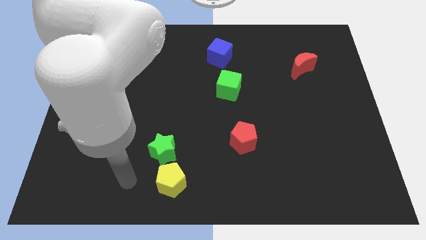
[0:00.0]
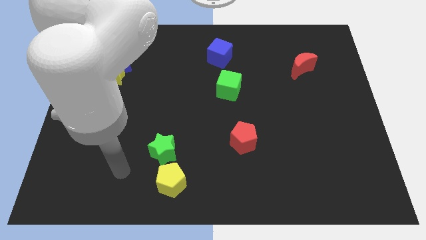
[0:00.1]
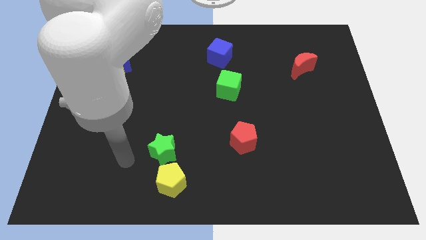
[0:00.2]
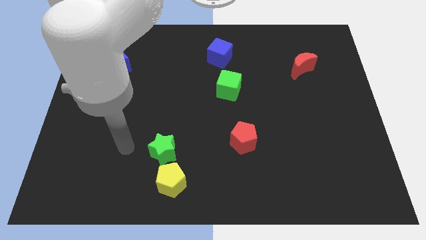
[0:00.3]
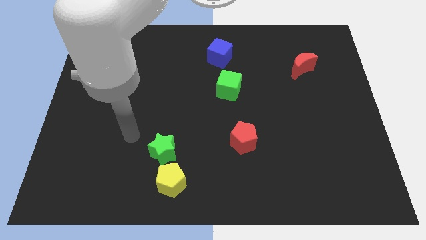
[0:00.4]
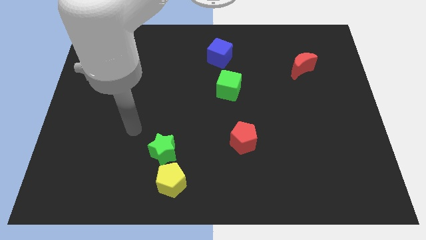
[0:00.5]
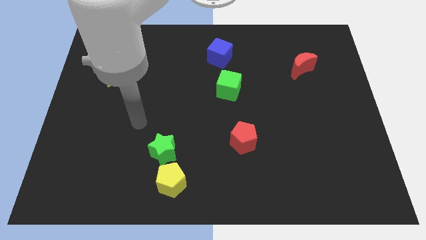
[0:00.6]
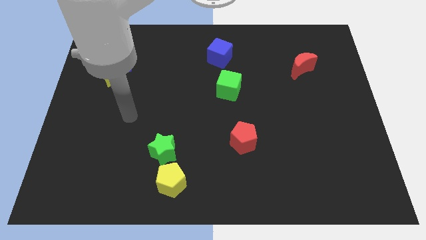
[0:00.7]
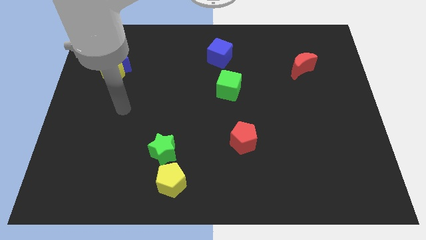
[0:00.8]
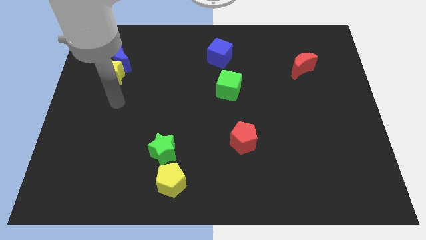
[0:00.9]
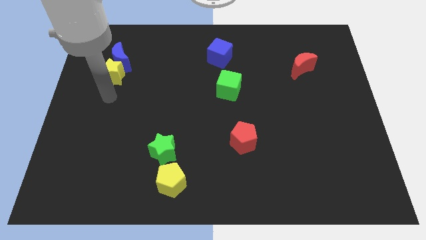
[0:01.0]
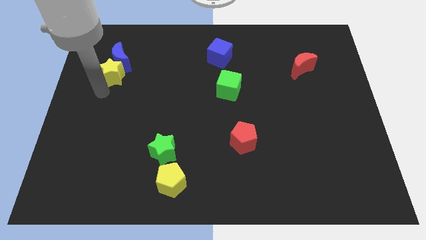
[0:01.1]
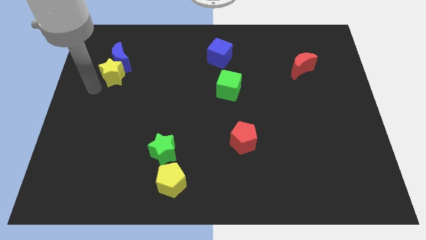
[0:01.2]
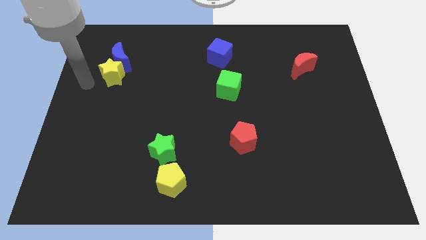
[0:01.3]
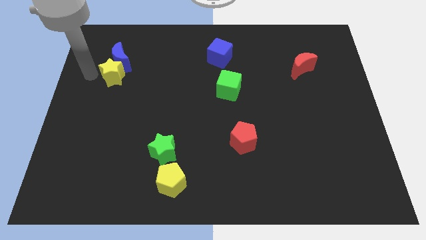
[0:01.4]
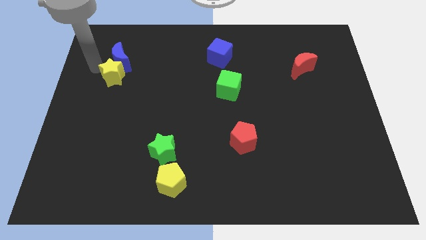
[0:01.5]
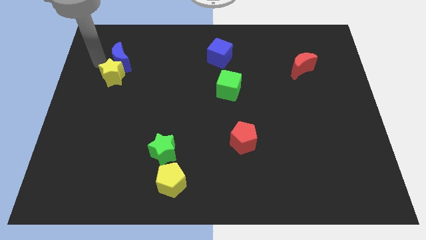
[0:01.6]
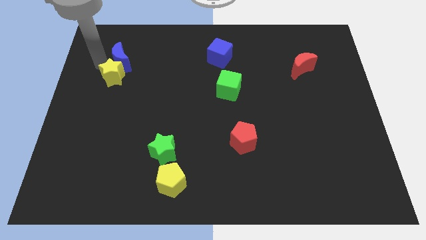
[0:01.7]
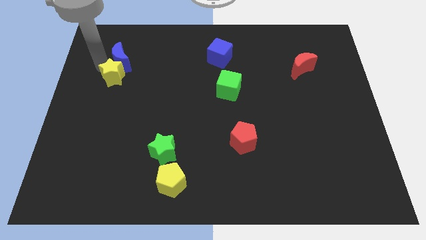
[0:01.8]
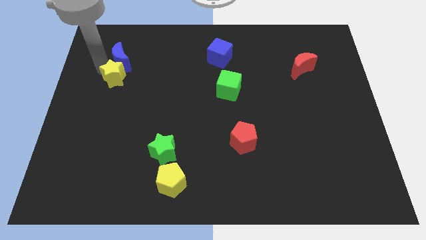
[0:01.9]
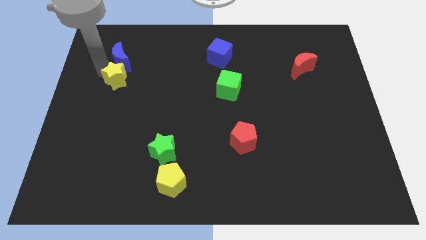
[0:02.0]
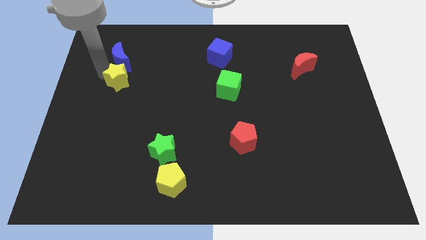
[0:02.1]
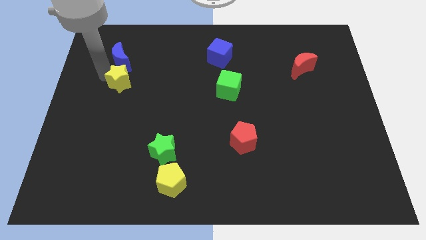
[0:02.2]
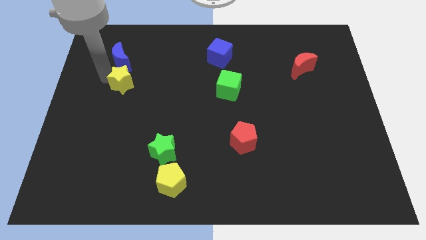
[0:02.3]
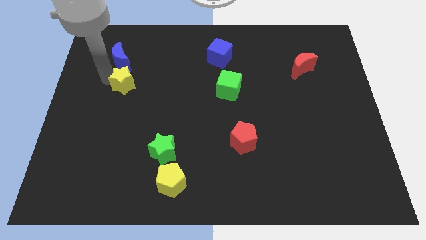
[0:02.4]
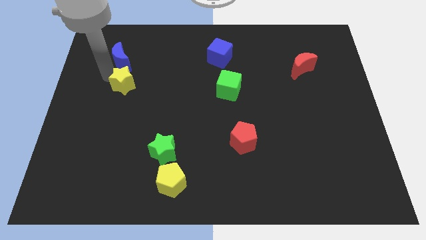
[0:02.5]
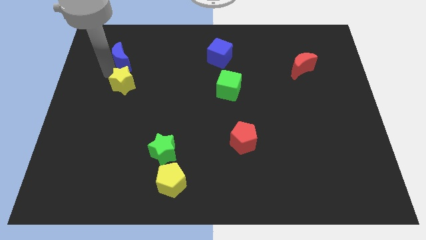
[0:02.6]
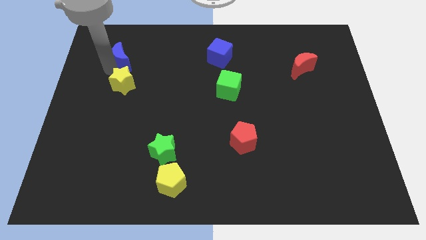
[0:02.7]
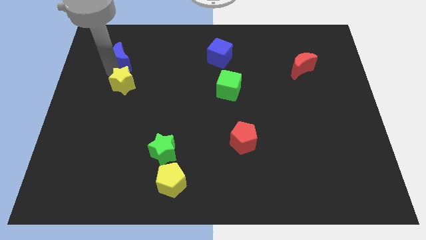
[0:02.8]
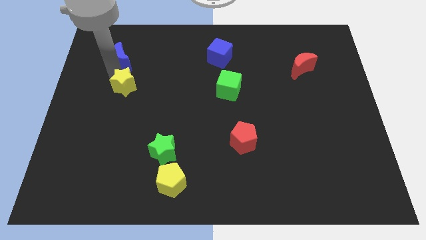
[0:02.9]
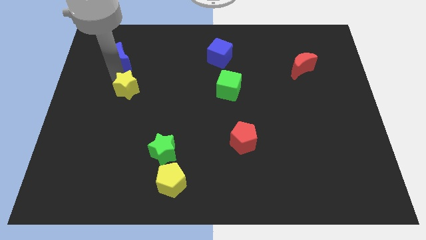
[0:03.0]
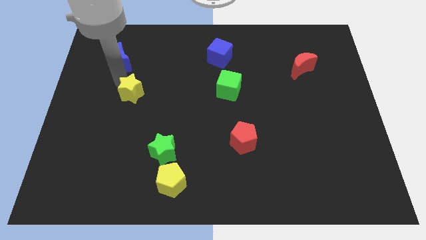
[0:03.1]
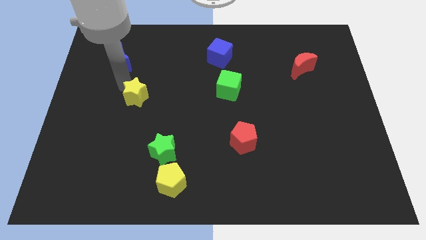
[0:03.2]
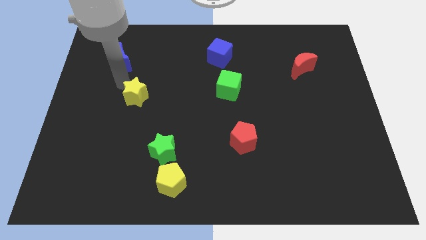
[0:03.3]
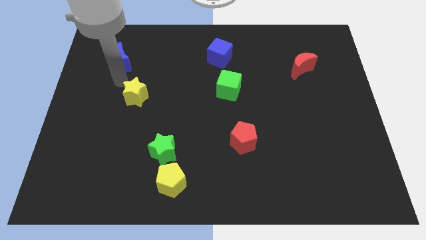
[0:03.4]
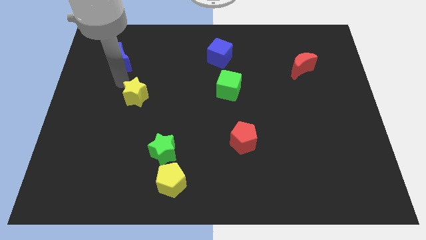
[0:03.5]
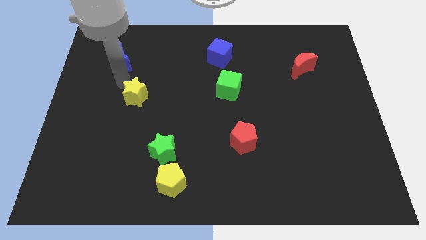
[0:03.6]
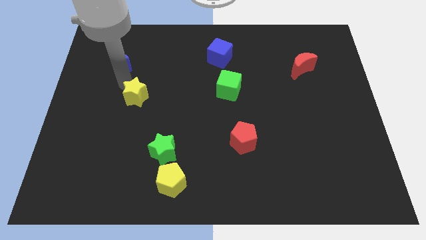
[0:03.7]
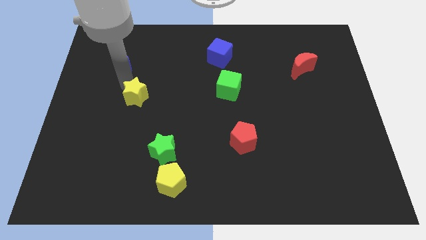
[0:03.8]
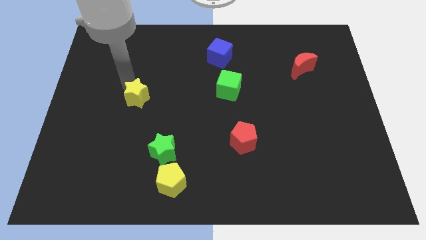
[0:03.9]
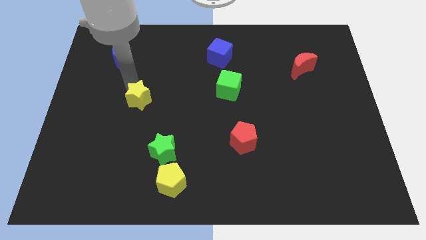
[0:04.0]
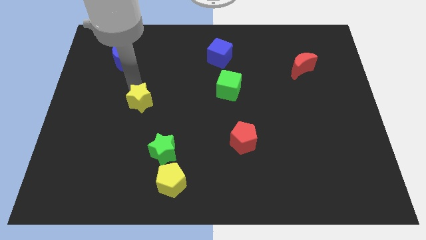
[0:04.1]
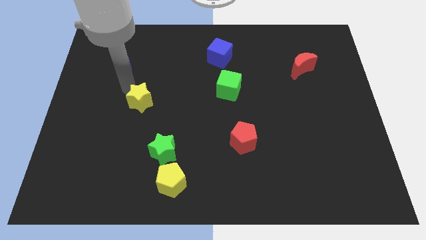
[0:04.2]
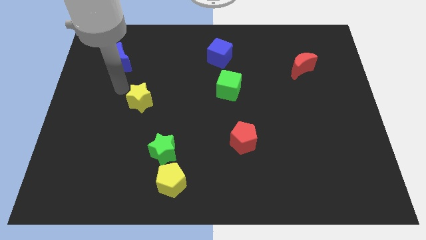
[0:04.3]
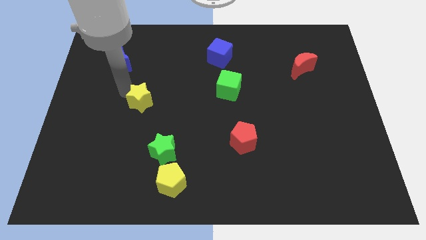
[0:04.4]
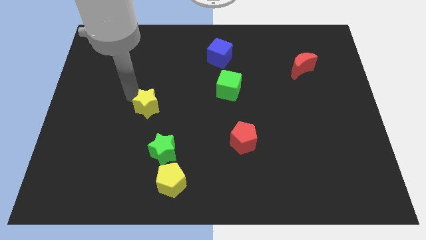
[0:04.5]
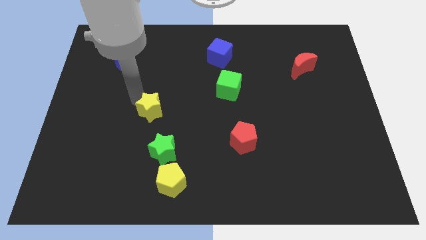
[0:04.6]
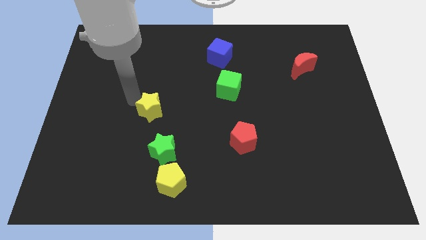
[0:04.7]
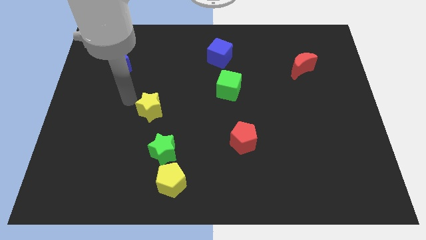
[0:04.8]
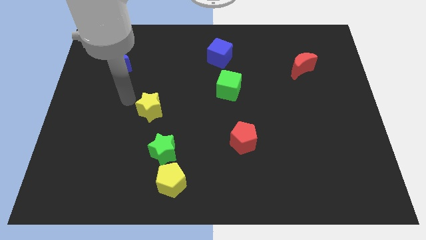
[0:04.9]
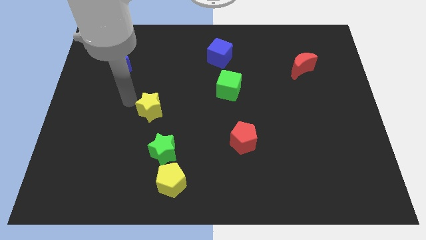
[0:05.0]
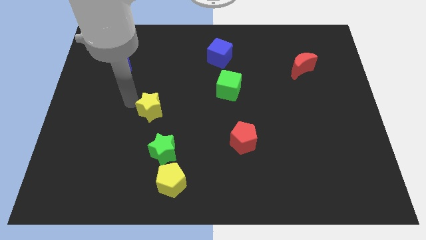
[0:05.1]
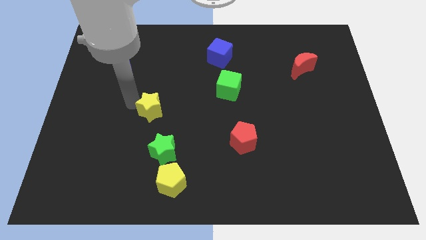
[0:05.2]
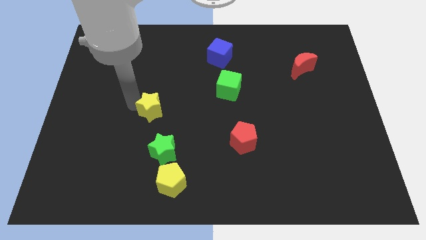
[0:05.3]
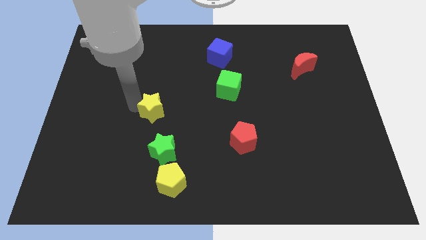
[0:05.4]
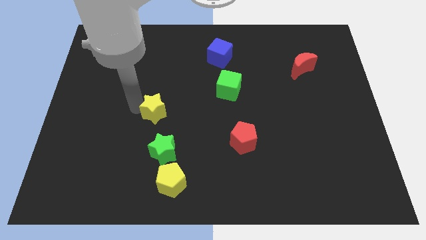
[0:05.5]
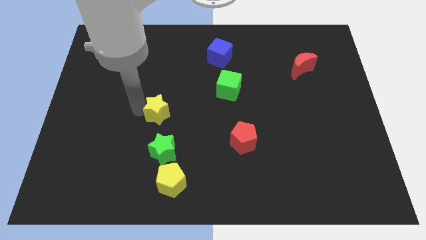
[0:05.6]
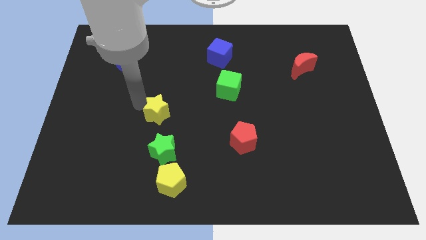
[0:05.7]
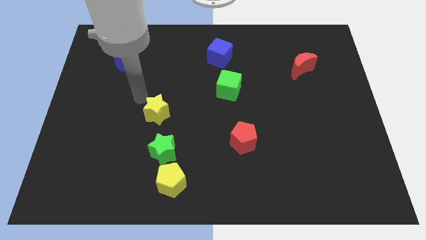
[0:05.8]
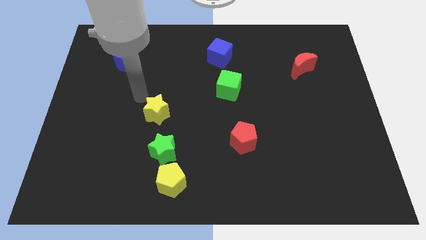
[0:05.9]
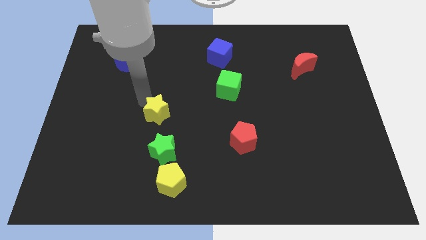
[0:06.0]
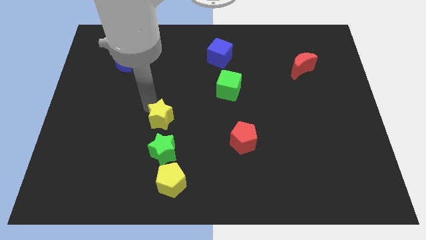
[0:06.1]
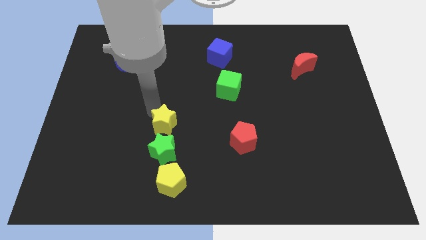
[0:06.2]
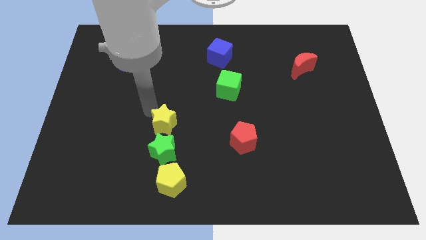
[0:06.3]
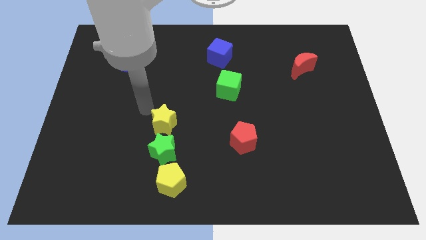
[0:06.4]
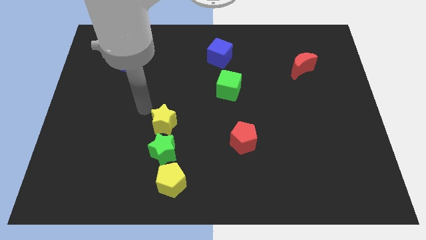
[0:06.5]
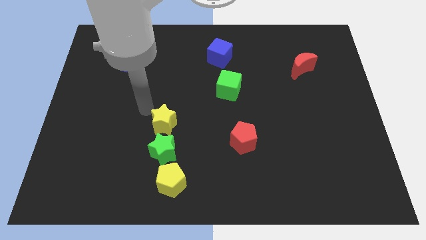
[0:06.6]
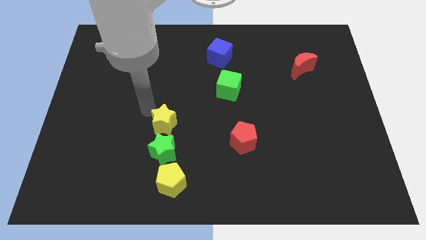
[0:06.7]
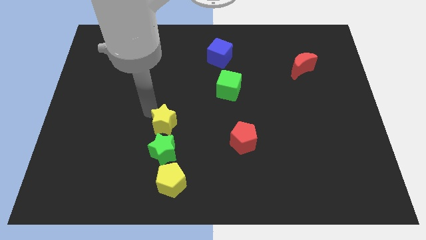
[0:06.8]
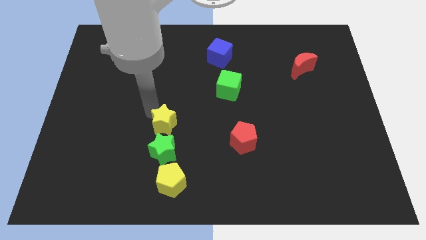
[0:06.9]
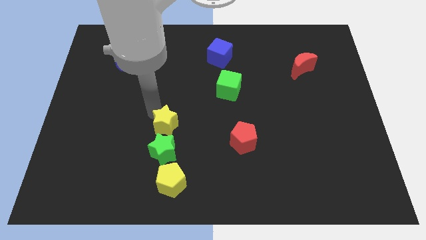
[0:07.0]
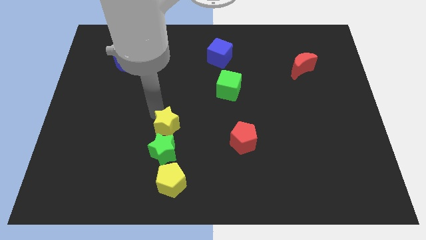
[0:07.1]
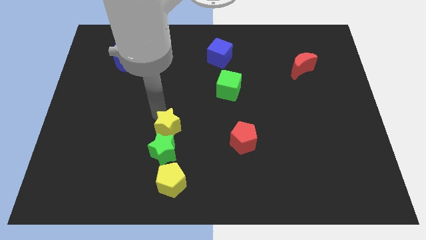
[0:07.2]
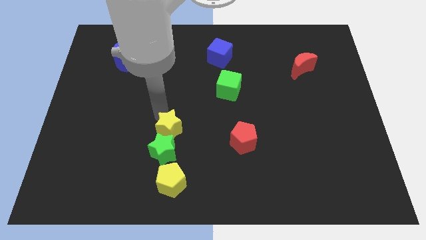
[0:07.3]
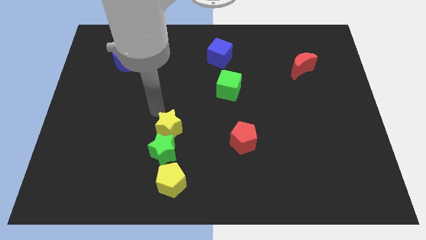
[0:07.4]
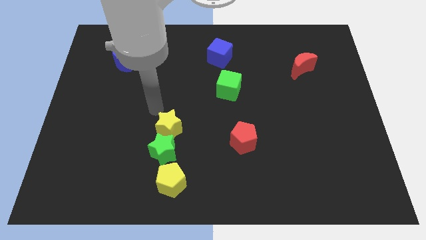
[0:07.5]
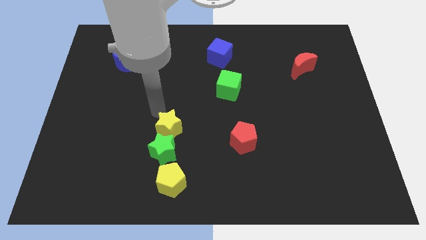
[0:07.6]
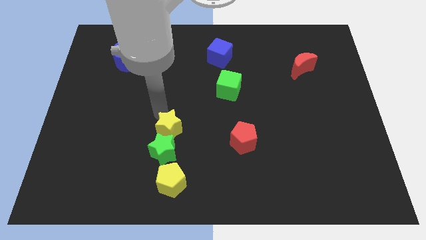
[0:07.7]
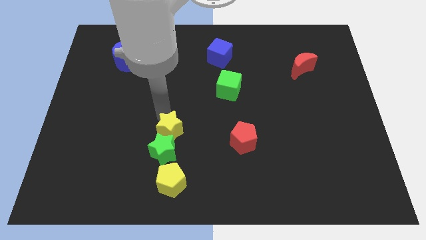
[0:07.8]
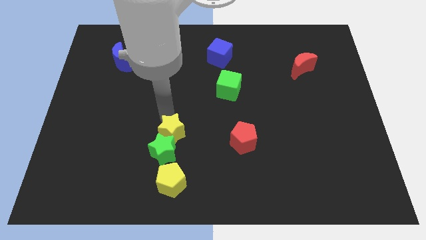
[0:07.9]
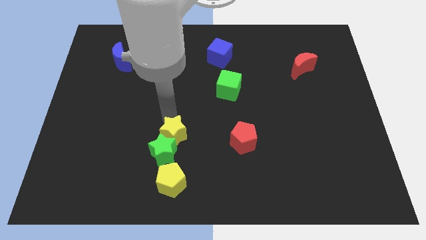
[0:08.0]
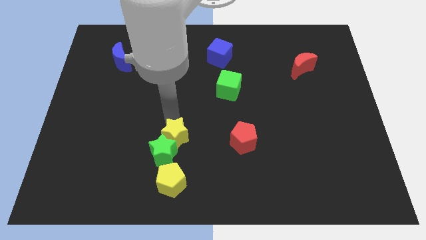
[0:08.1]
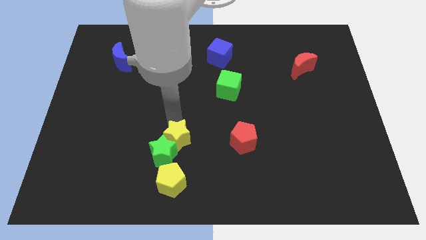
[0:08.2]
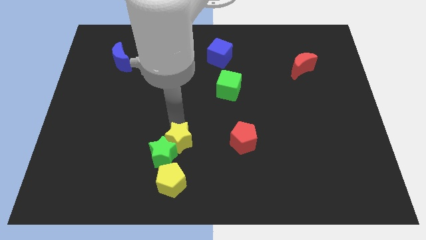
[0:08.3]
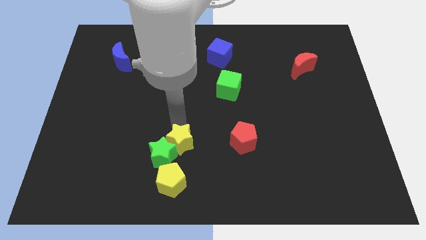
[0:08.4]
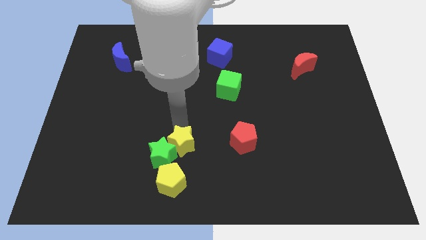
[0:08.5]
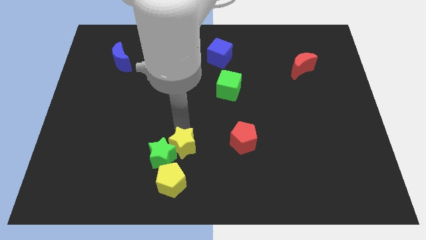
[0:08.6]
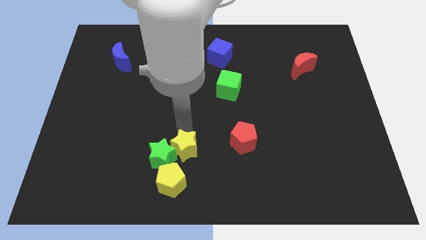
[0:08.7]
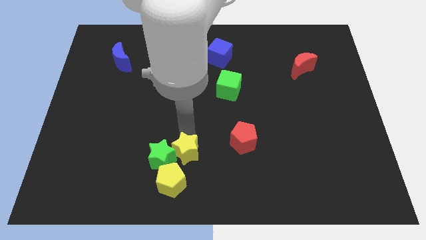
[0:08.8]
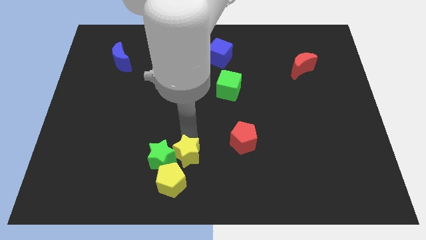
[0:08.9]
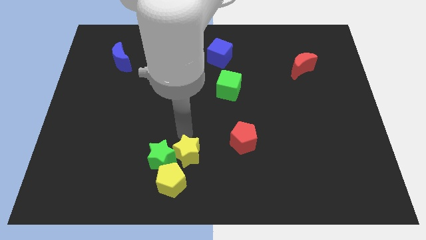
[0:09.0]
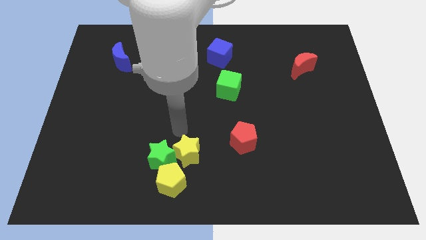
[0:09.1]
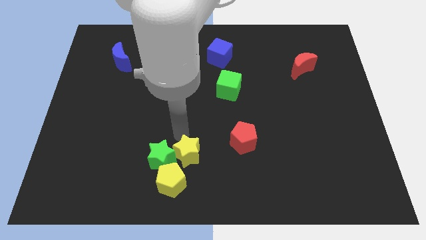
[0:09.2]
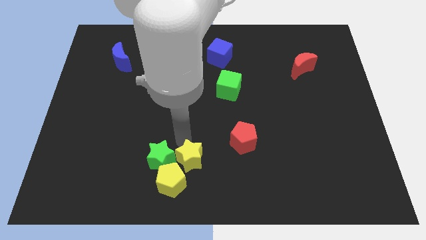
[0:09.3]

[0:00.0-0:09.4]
slide the yellow star to the bottom side
